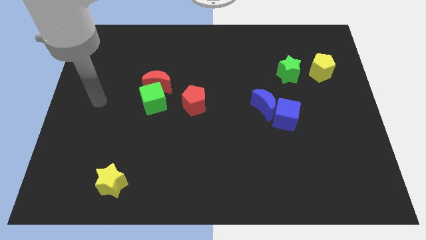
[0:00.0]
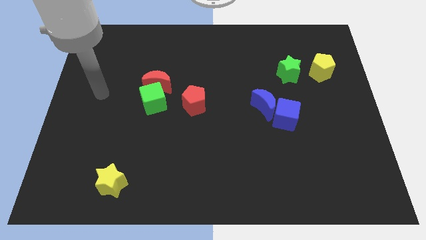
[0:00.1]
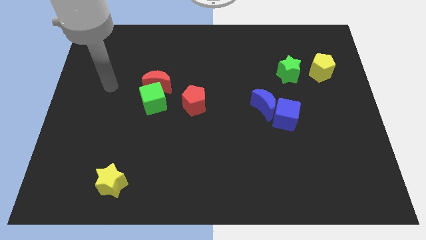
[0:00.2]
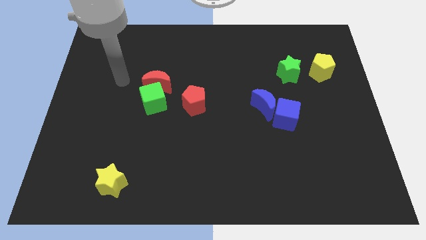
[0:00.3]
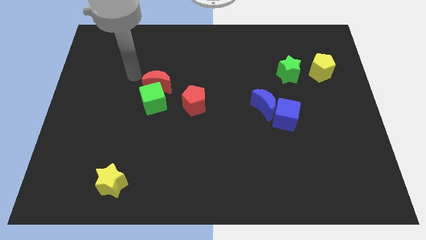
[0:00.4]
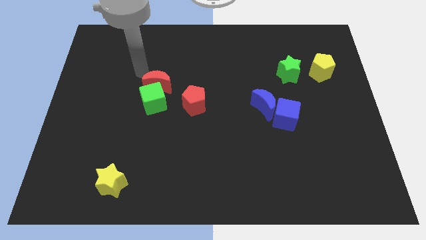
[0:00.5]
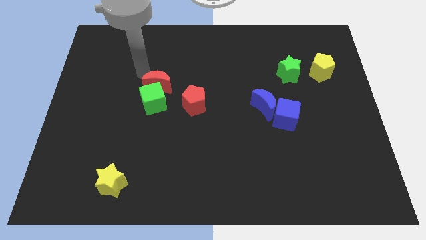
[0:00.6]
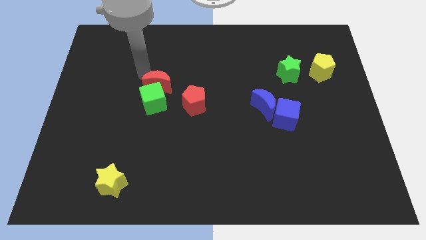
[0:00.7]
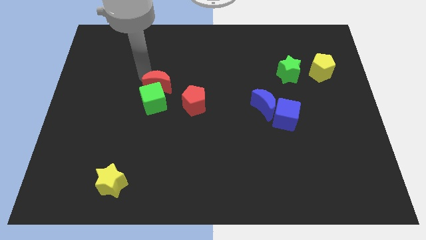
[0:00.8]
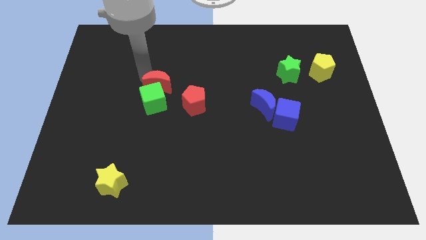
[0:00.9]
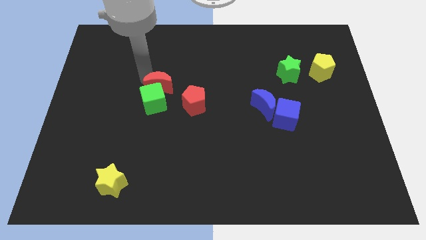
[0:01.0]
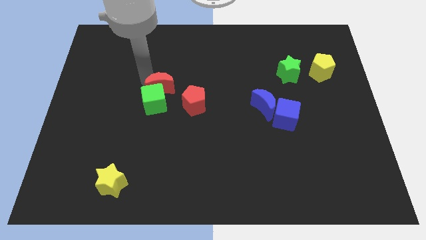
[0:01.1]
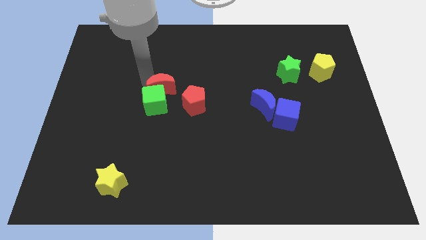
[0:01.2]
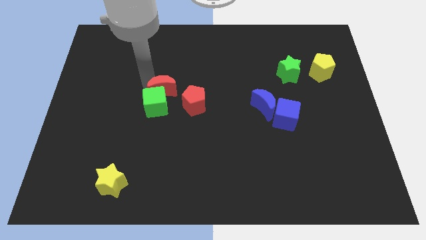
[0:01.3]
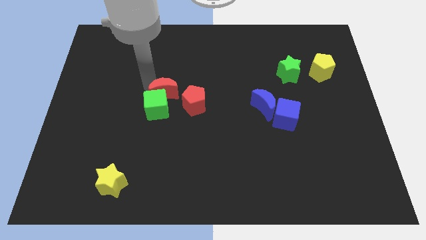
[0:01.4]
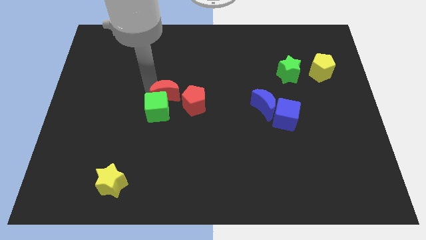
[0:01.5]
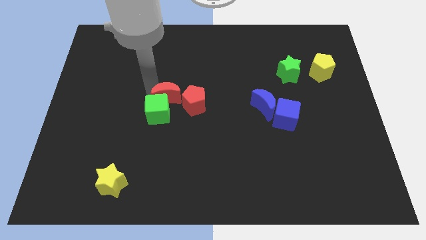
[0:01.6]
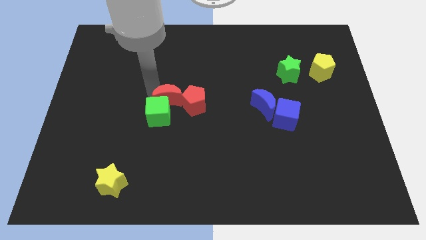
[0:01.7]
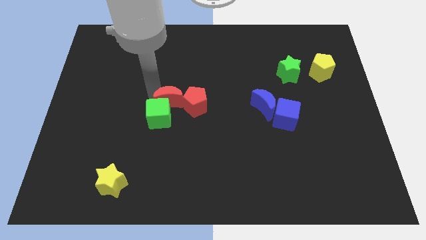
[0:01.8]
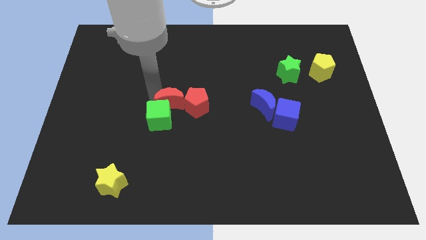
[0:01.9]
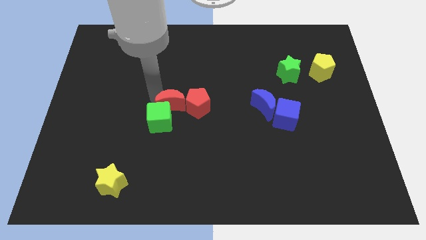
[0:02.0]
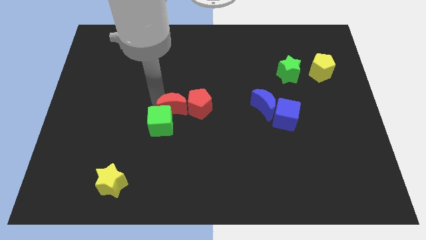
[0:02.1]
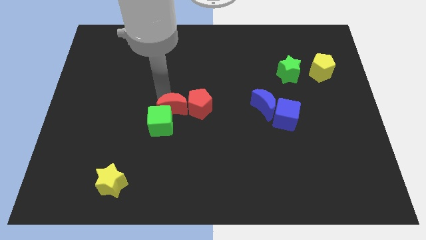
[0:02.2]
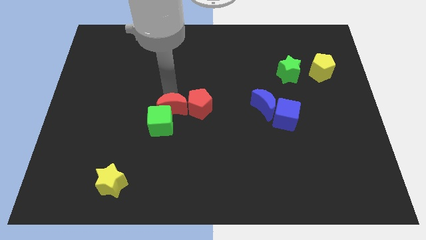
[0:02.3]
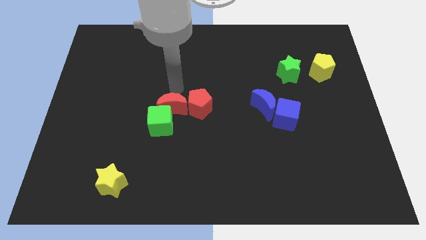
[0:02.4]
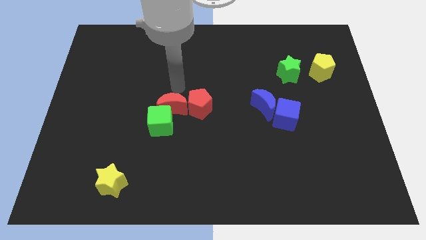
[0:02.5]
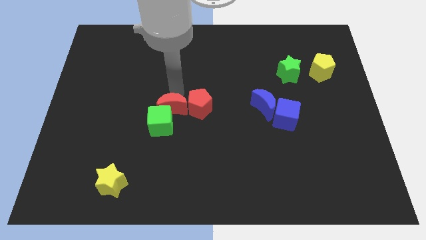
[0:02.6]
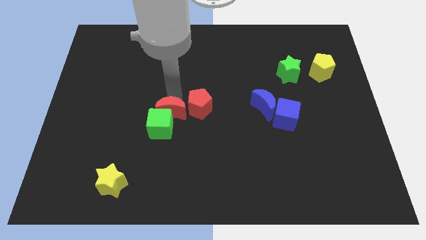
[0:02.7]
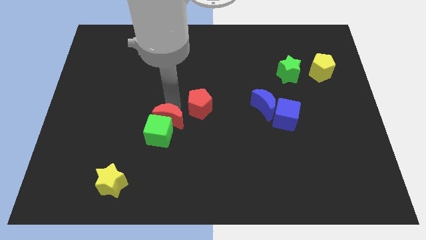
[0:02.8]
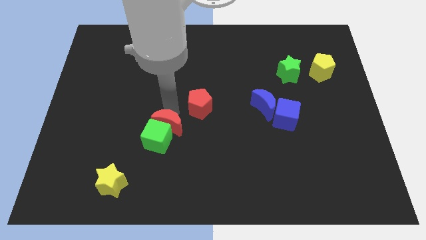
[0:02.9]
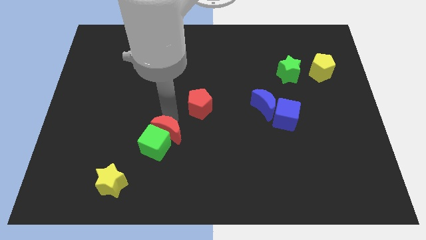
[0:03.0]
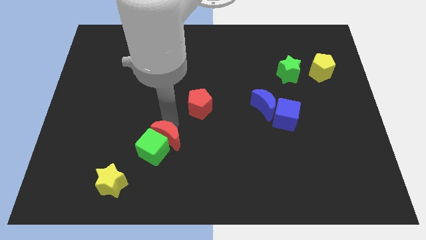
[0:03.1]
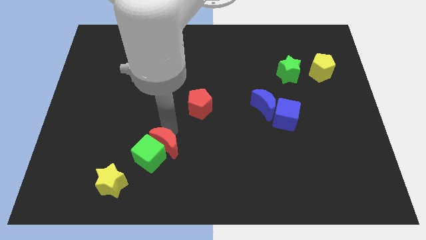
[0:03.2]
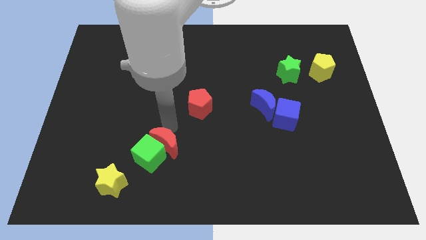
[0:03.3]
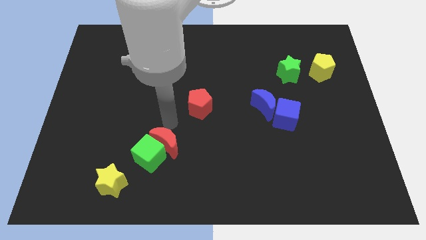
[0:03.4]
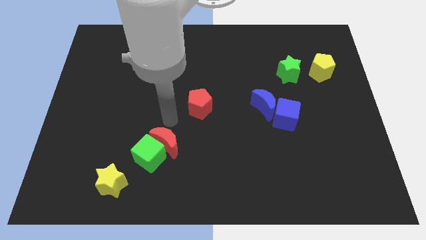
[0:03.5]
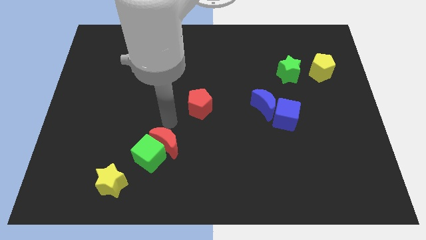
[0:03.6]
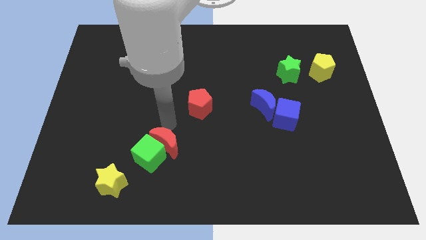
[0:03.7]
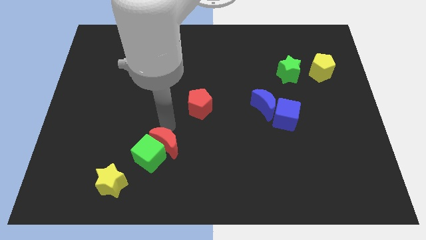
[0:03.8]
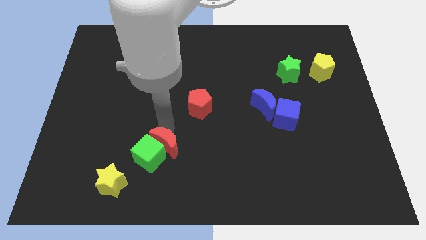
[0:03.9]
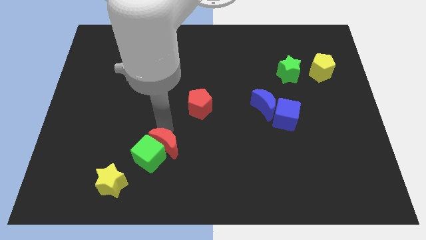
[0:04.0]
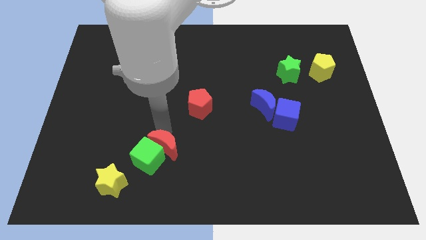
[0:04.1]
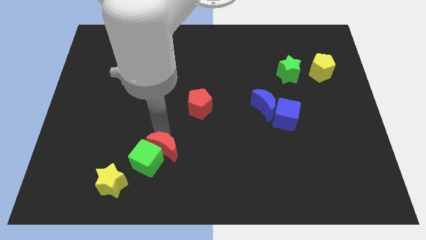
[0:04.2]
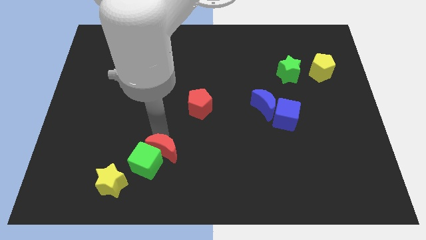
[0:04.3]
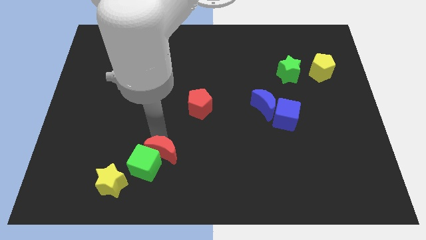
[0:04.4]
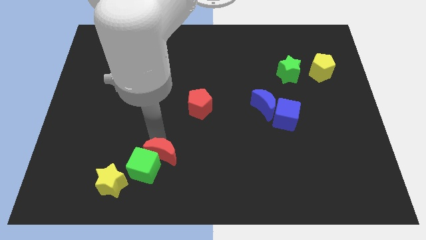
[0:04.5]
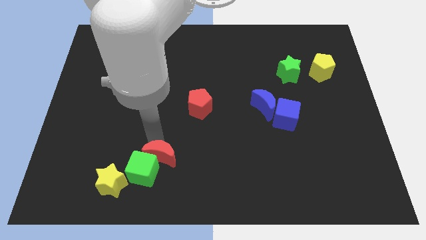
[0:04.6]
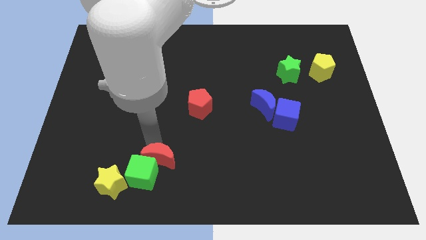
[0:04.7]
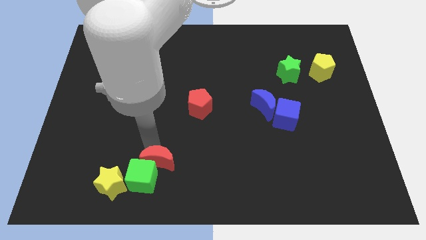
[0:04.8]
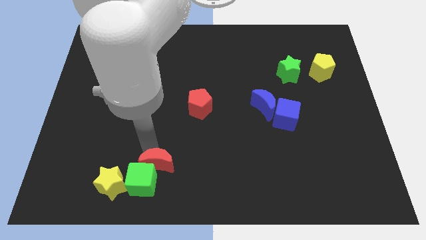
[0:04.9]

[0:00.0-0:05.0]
put the red moon right of the yellow star

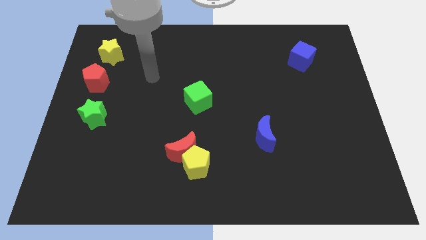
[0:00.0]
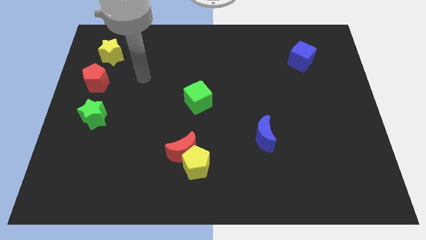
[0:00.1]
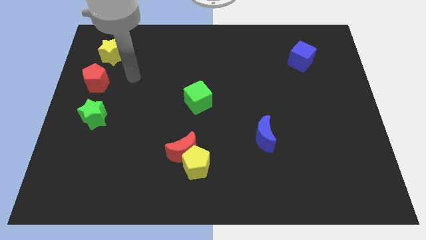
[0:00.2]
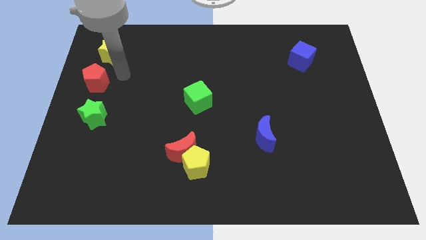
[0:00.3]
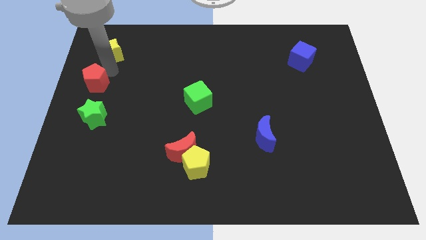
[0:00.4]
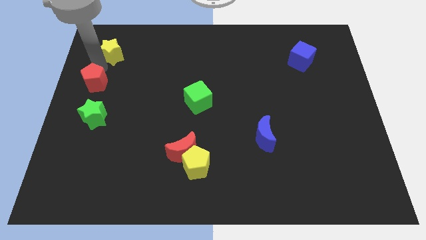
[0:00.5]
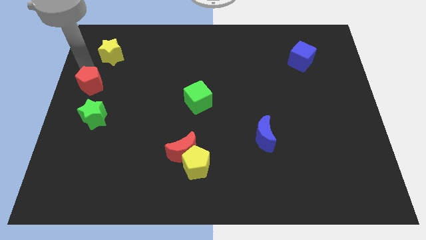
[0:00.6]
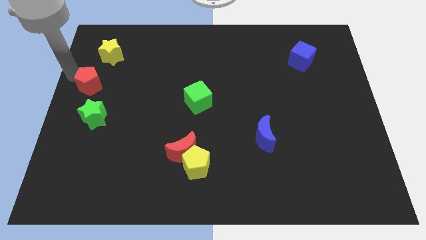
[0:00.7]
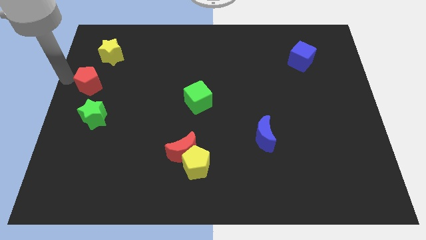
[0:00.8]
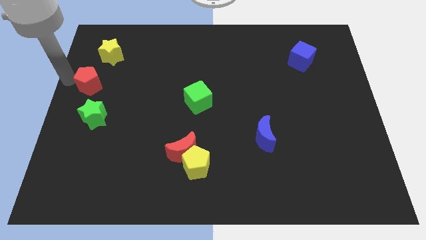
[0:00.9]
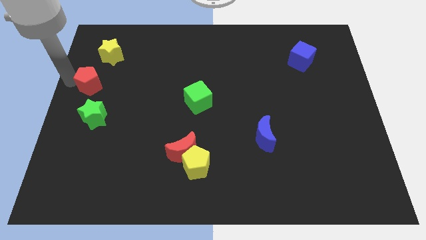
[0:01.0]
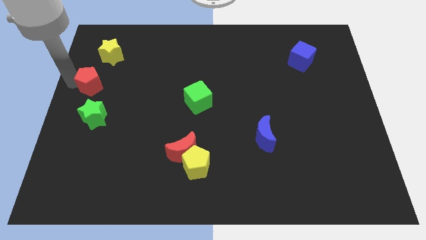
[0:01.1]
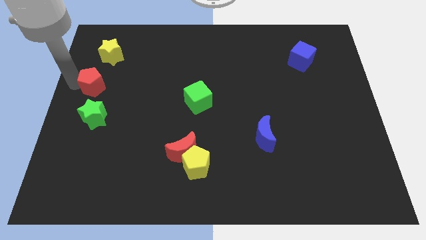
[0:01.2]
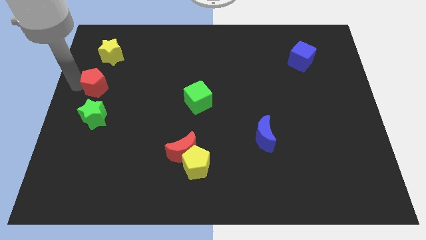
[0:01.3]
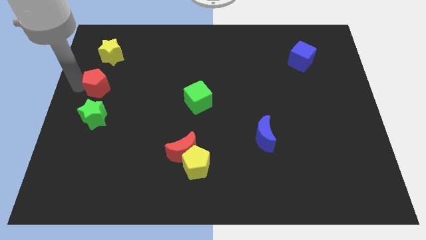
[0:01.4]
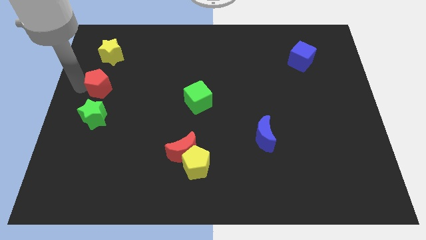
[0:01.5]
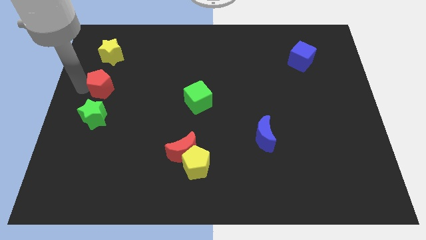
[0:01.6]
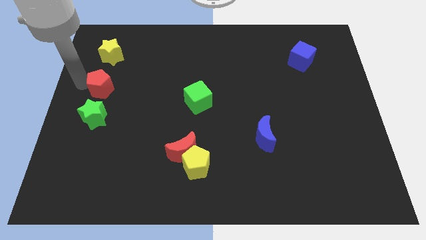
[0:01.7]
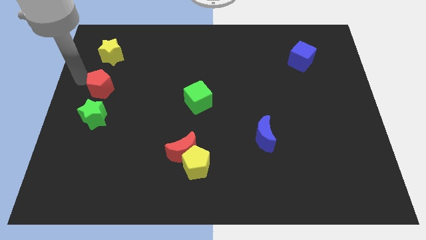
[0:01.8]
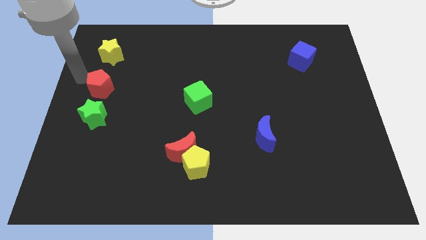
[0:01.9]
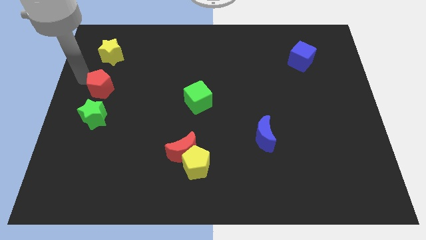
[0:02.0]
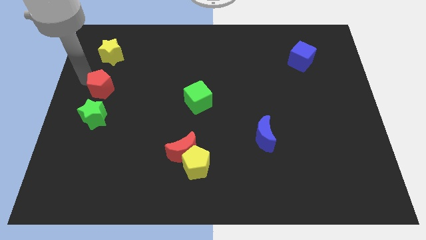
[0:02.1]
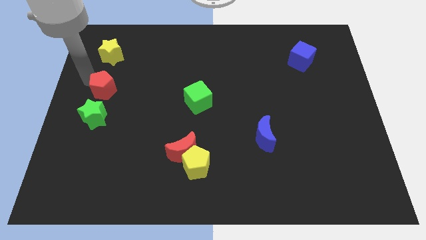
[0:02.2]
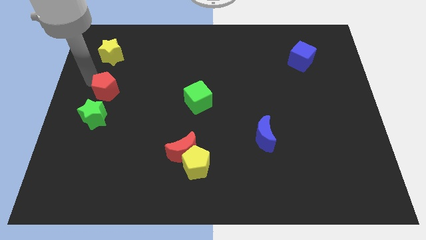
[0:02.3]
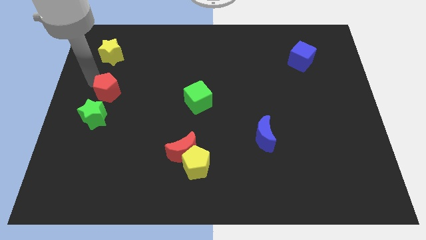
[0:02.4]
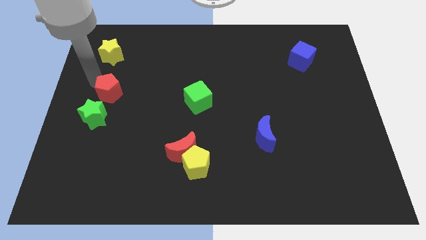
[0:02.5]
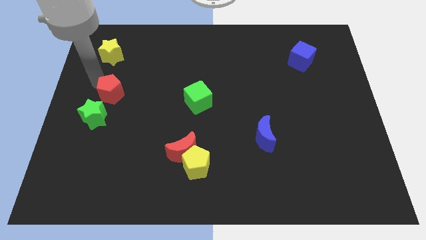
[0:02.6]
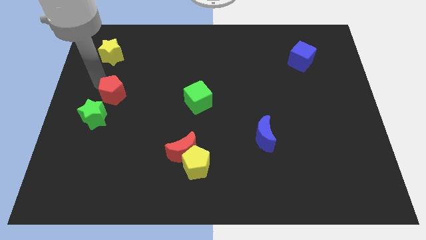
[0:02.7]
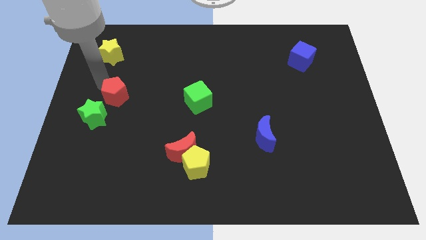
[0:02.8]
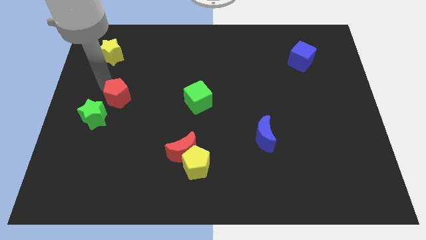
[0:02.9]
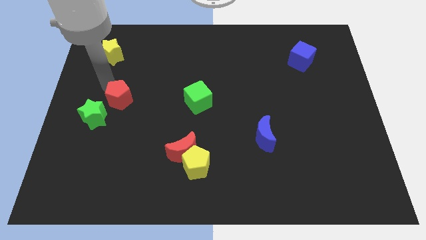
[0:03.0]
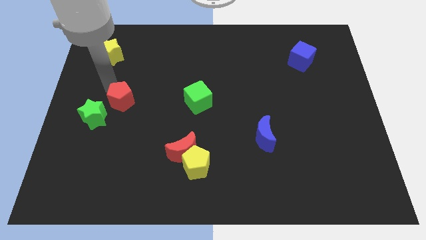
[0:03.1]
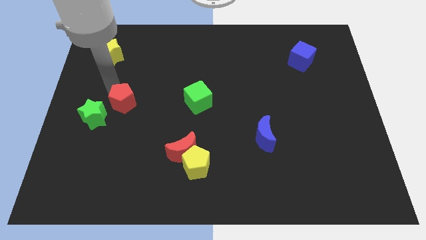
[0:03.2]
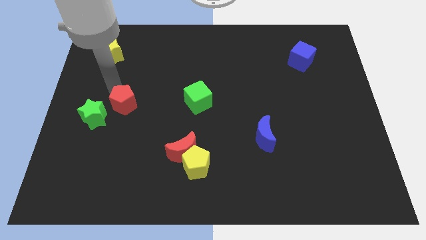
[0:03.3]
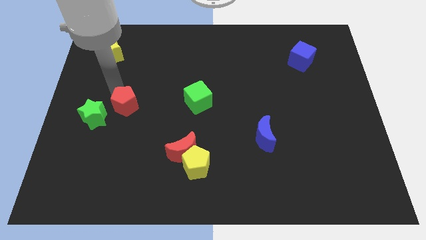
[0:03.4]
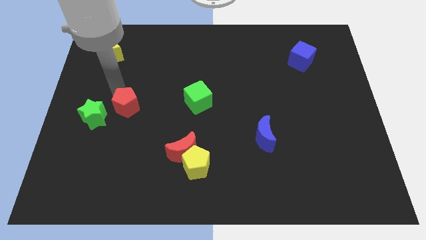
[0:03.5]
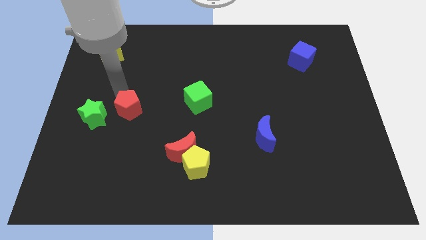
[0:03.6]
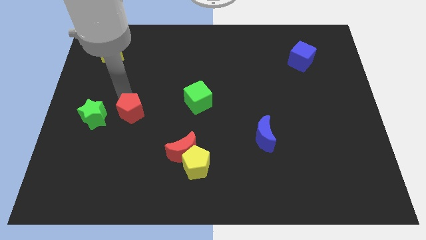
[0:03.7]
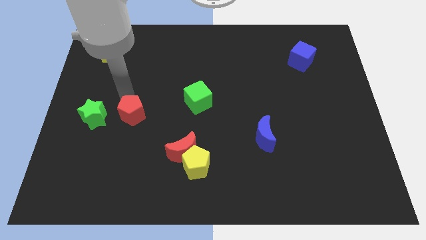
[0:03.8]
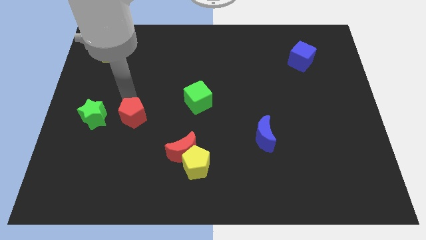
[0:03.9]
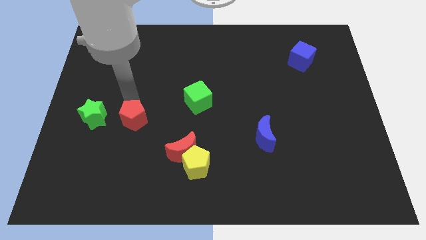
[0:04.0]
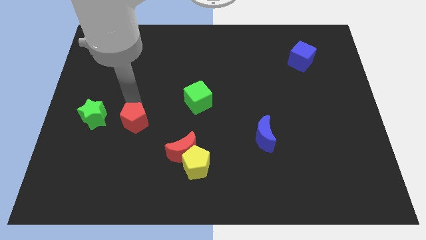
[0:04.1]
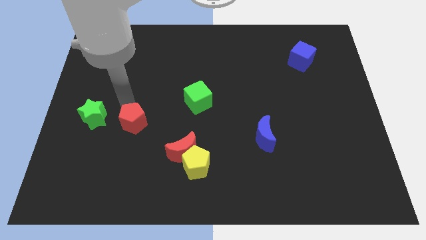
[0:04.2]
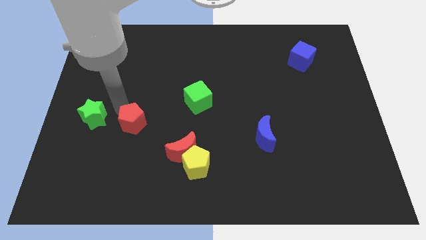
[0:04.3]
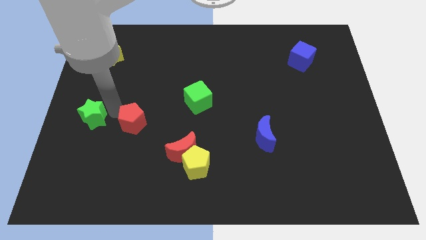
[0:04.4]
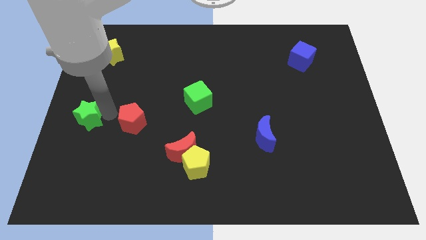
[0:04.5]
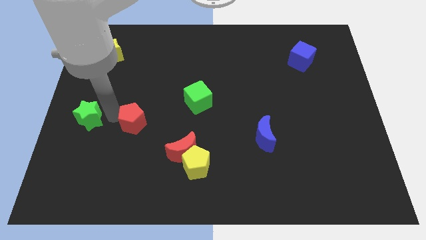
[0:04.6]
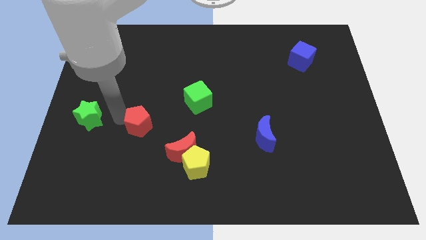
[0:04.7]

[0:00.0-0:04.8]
put the red pentagon to the top left of the red moon
